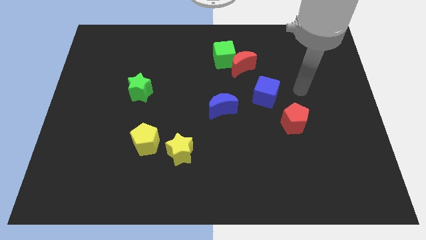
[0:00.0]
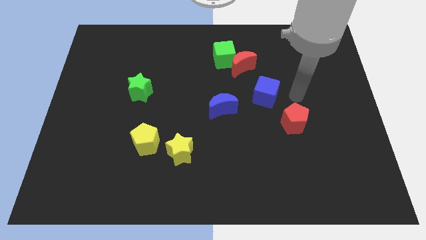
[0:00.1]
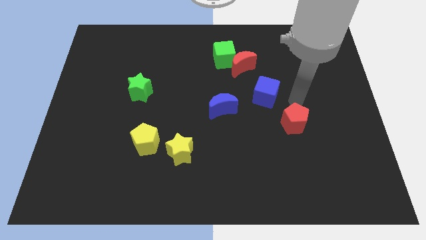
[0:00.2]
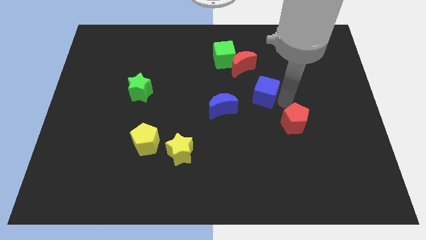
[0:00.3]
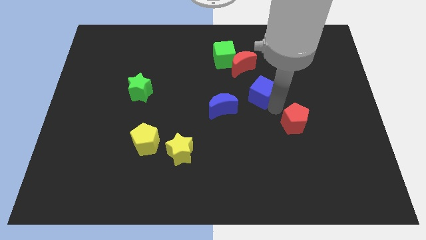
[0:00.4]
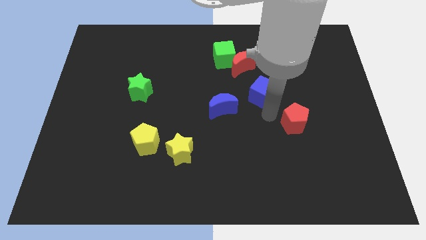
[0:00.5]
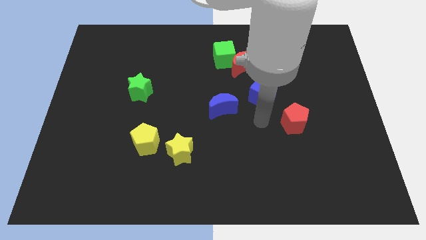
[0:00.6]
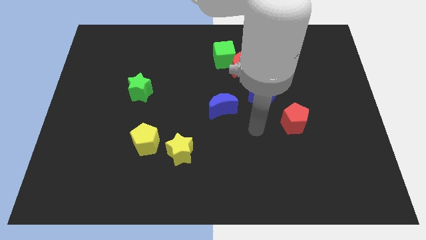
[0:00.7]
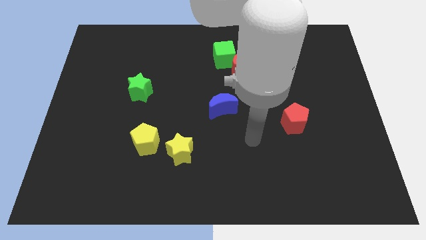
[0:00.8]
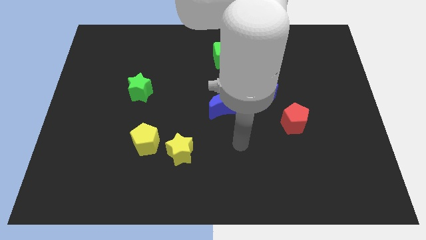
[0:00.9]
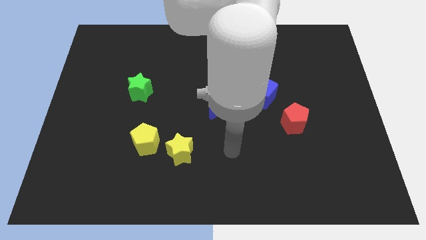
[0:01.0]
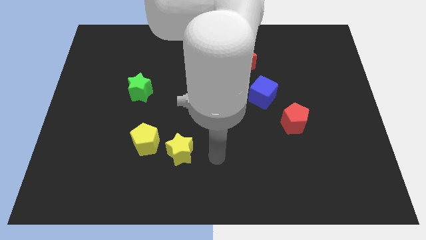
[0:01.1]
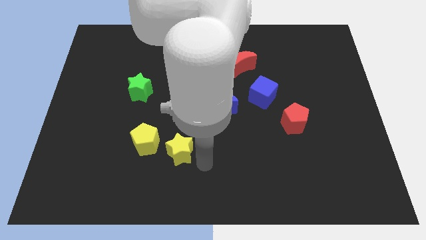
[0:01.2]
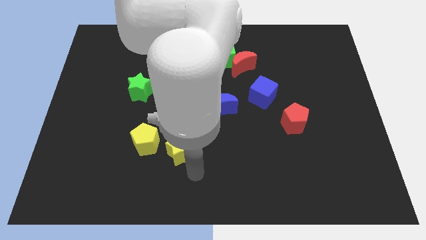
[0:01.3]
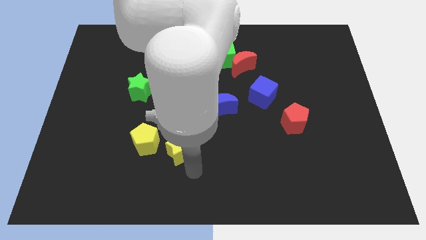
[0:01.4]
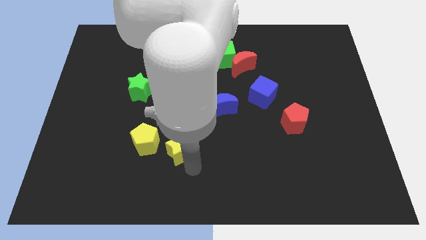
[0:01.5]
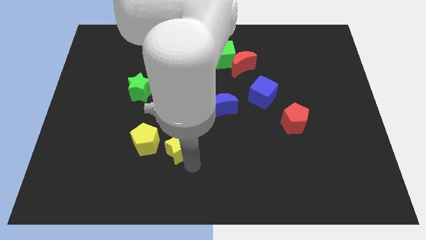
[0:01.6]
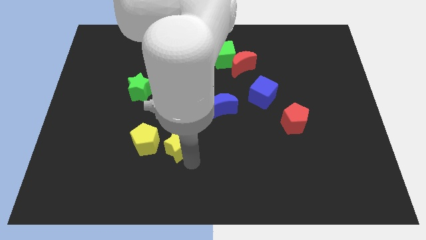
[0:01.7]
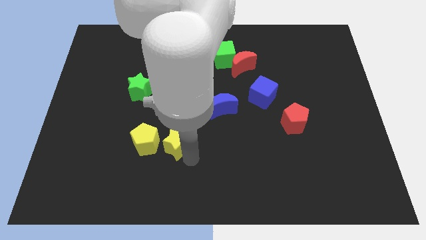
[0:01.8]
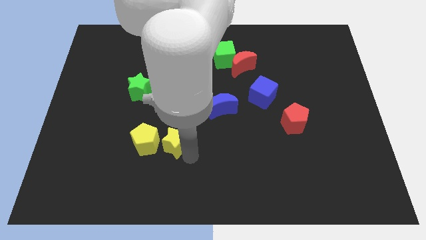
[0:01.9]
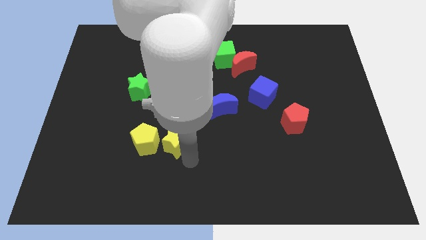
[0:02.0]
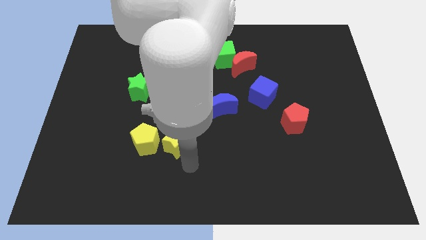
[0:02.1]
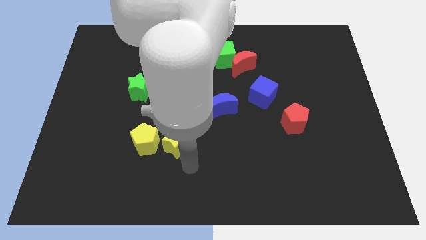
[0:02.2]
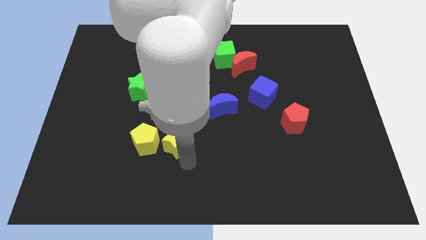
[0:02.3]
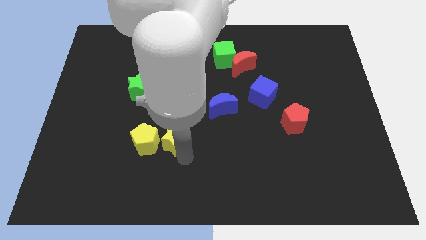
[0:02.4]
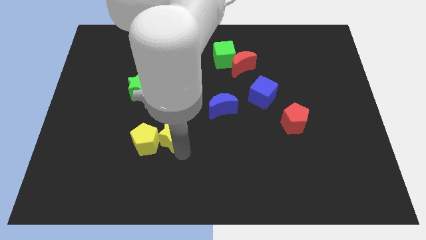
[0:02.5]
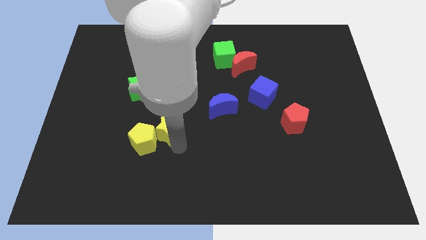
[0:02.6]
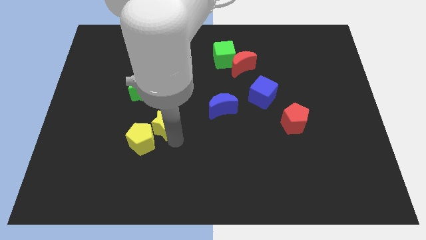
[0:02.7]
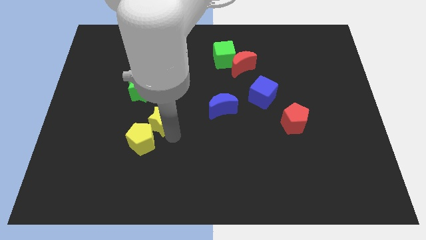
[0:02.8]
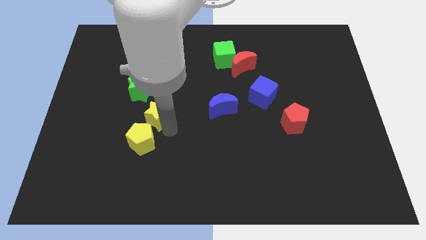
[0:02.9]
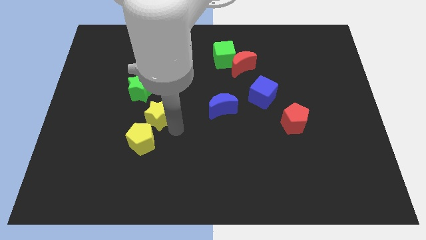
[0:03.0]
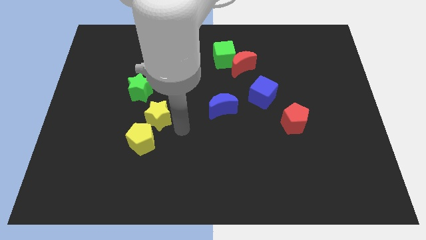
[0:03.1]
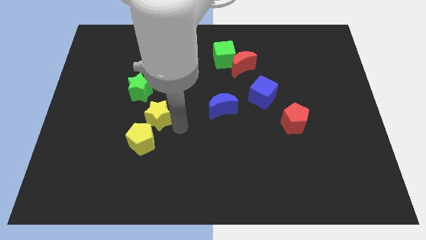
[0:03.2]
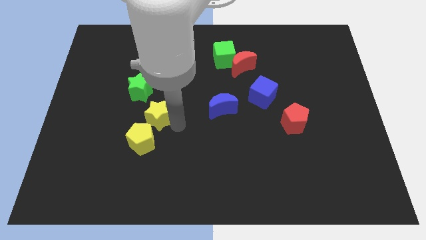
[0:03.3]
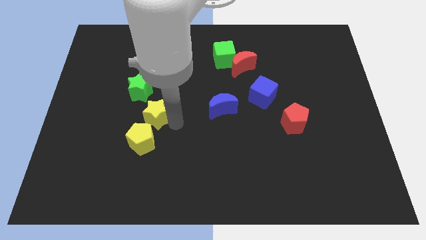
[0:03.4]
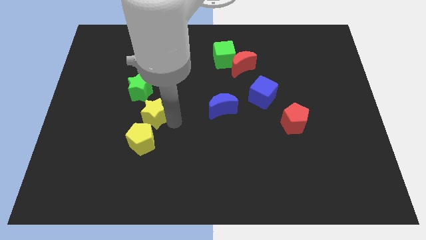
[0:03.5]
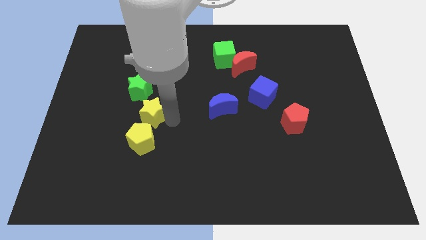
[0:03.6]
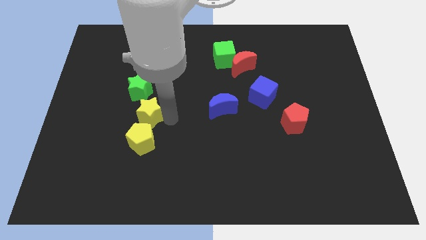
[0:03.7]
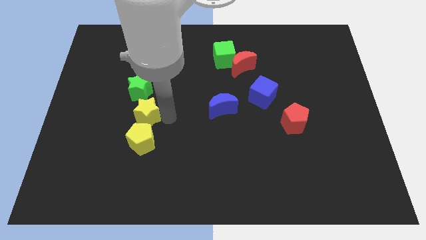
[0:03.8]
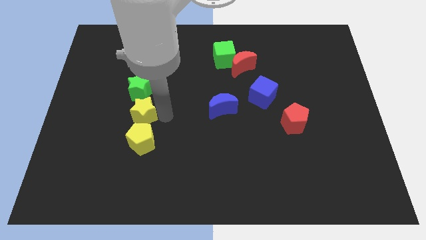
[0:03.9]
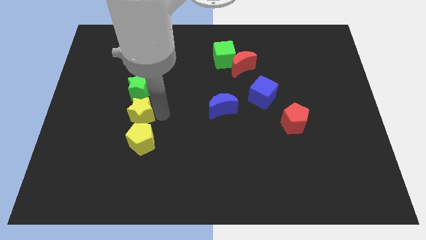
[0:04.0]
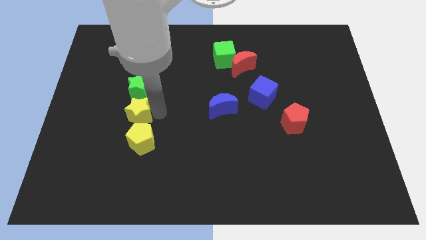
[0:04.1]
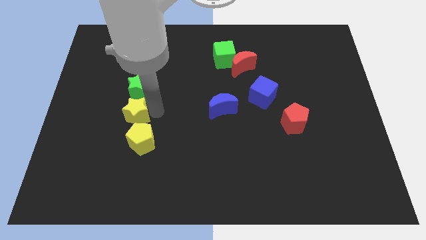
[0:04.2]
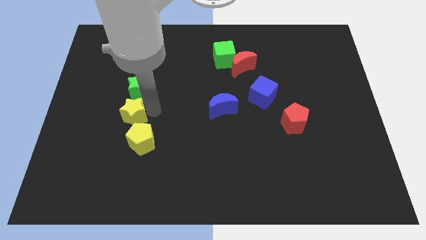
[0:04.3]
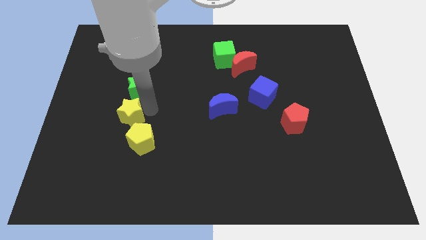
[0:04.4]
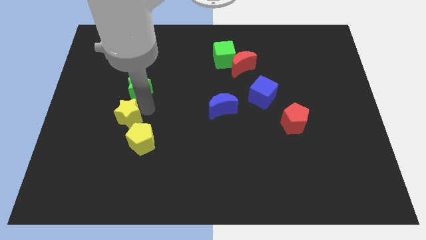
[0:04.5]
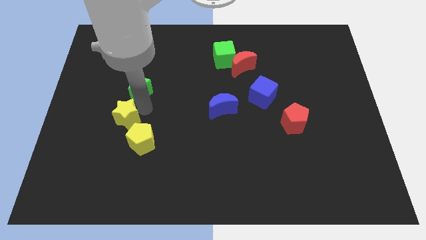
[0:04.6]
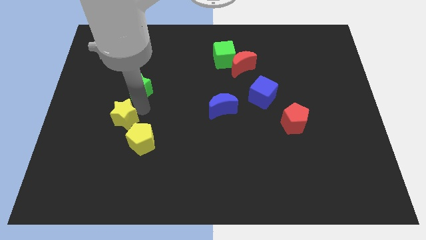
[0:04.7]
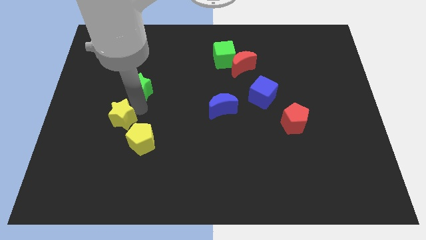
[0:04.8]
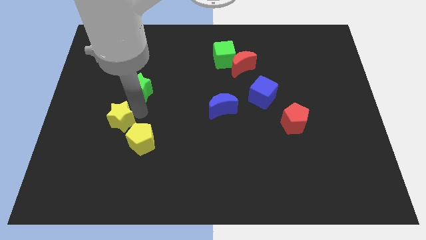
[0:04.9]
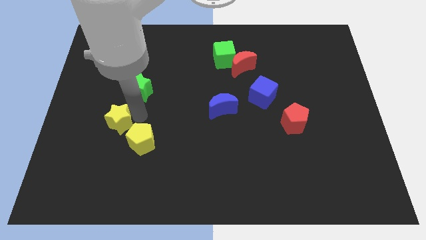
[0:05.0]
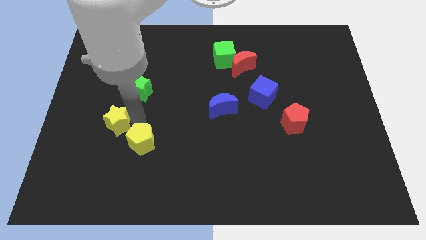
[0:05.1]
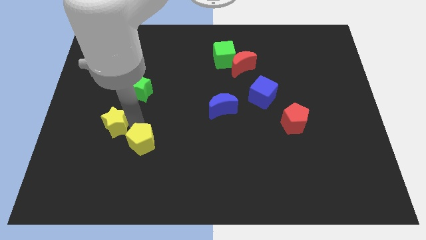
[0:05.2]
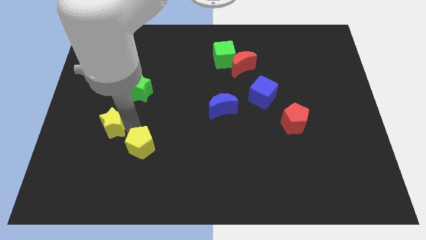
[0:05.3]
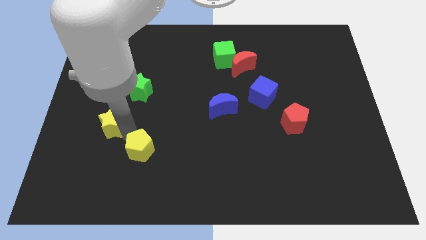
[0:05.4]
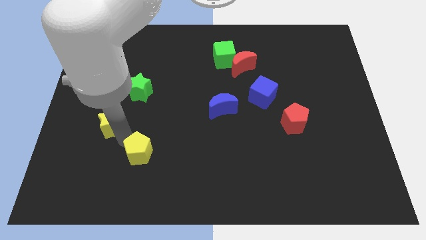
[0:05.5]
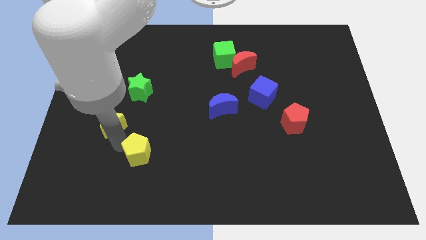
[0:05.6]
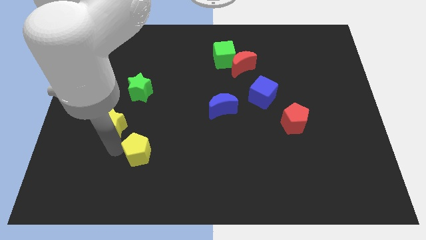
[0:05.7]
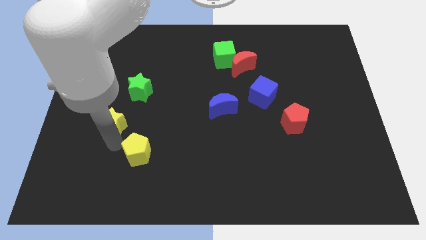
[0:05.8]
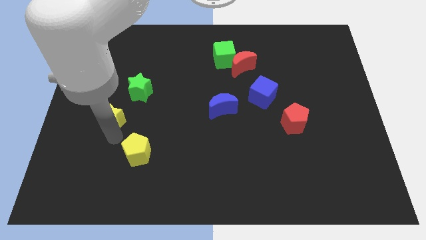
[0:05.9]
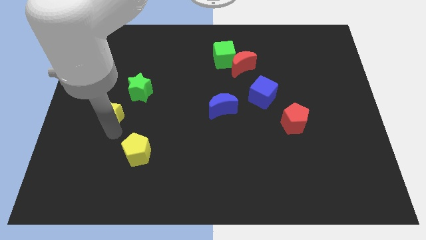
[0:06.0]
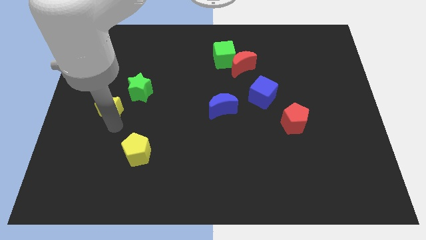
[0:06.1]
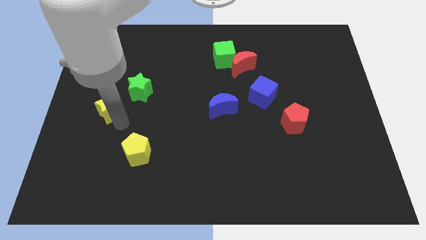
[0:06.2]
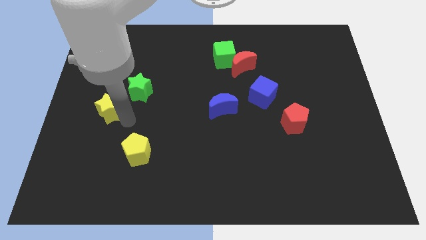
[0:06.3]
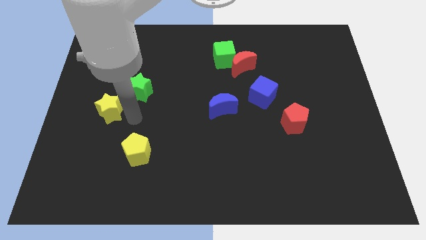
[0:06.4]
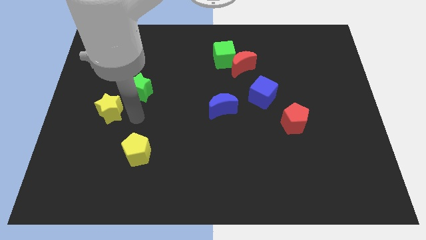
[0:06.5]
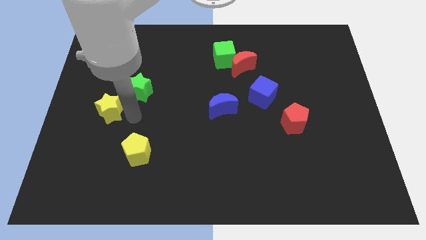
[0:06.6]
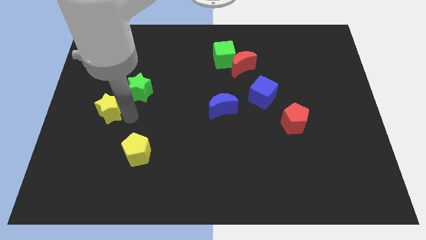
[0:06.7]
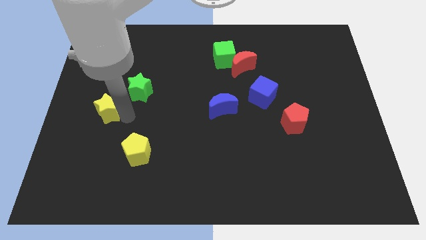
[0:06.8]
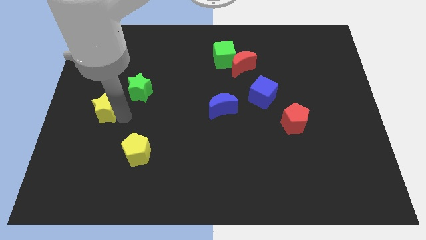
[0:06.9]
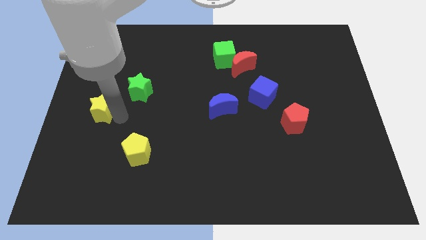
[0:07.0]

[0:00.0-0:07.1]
push the yellow star to the left side
